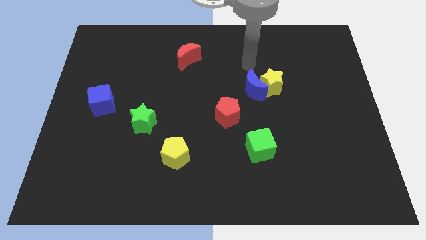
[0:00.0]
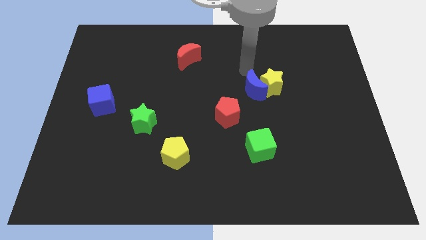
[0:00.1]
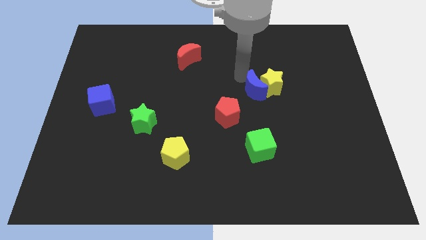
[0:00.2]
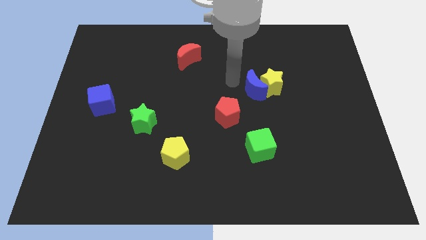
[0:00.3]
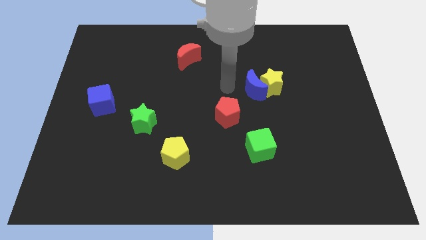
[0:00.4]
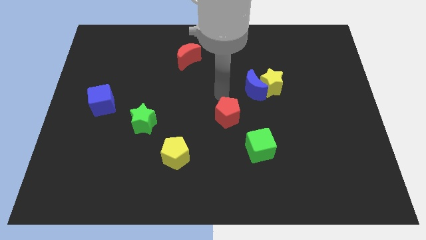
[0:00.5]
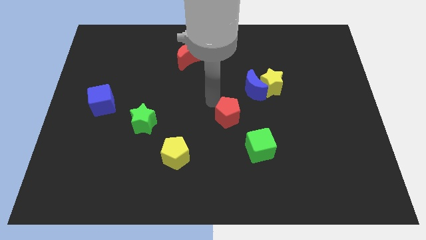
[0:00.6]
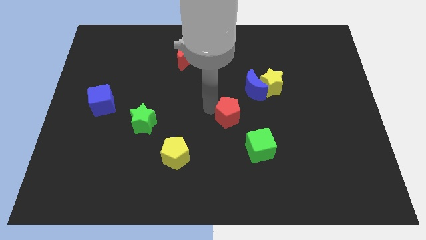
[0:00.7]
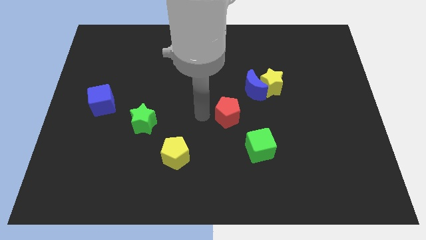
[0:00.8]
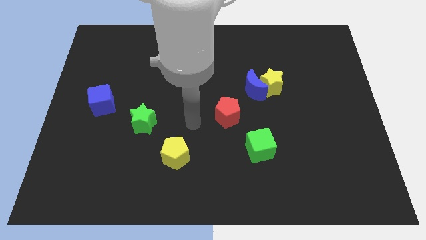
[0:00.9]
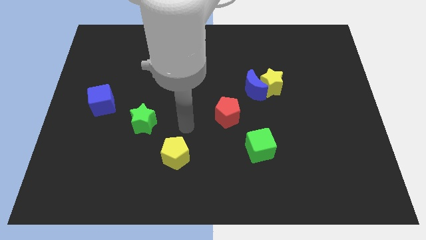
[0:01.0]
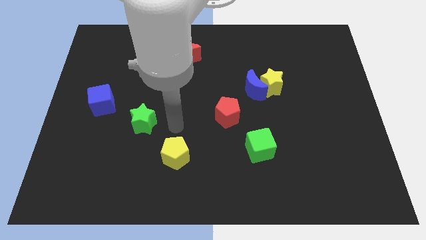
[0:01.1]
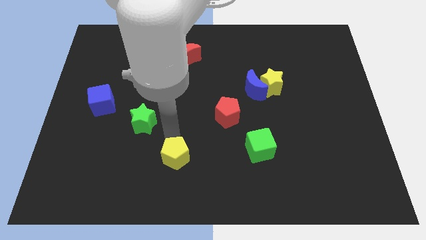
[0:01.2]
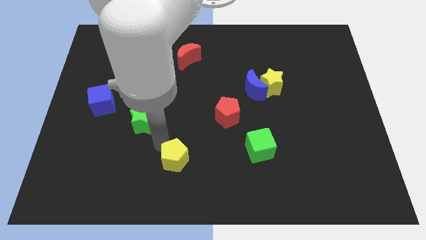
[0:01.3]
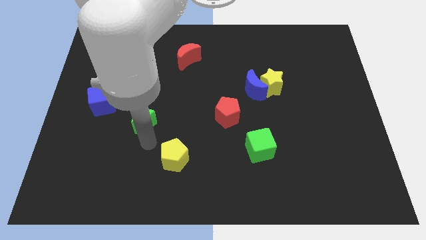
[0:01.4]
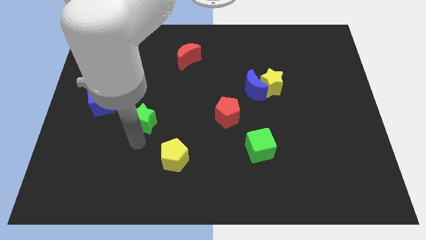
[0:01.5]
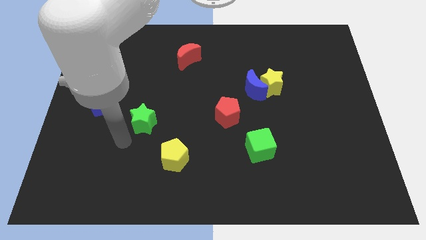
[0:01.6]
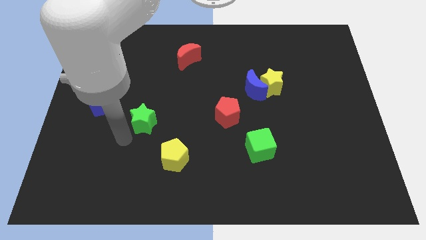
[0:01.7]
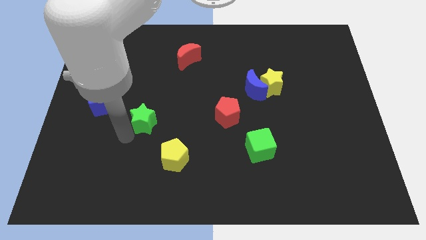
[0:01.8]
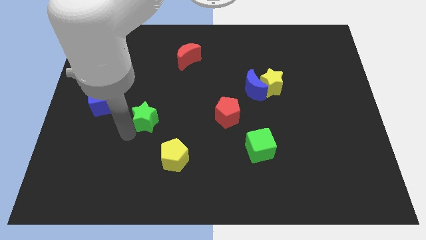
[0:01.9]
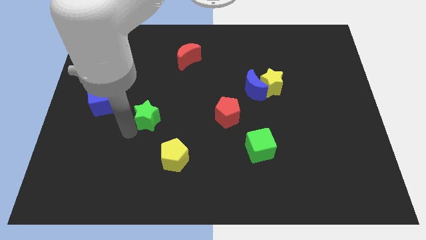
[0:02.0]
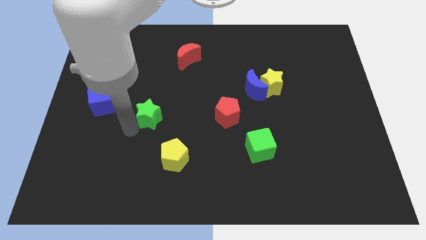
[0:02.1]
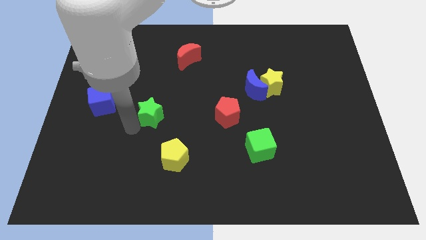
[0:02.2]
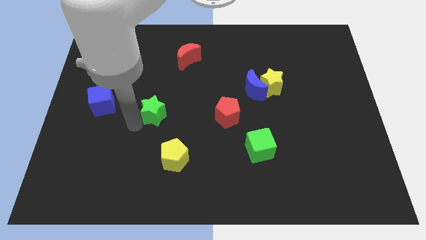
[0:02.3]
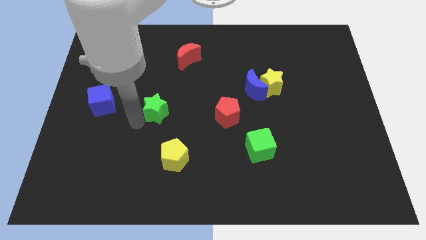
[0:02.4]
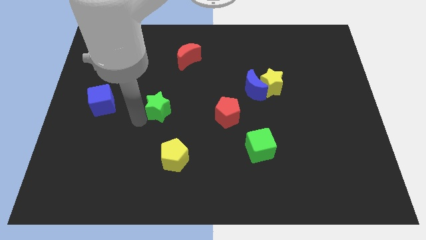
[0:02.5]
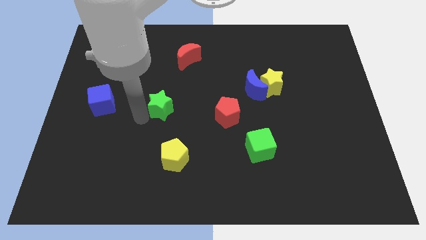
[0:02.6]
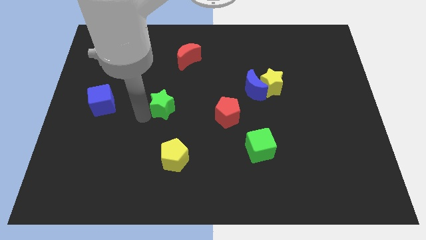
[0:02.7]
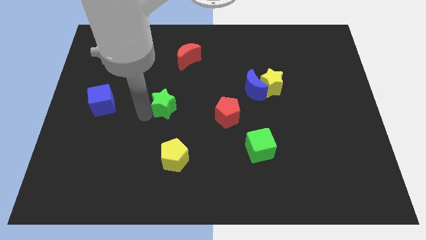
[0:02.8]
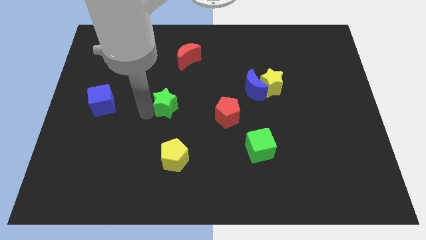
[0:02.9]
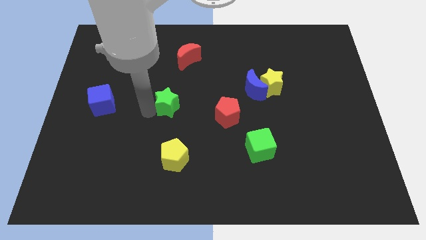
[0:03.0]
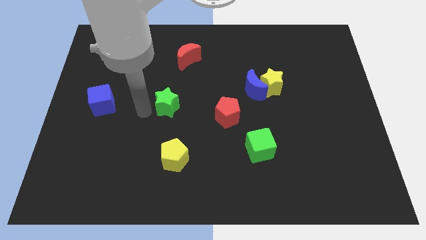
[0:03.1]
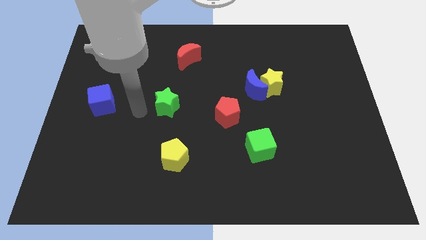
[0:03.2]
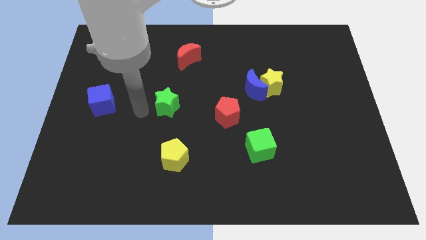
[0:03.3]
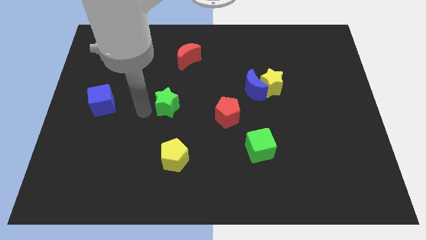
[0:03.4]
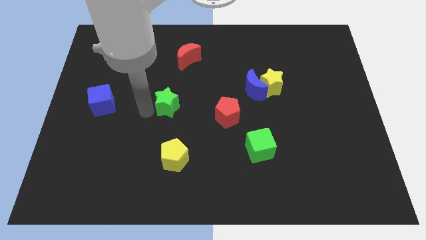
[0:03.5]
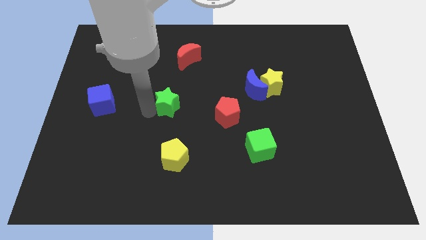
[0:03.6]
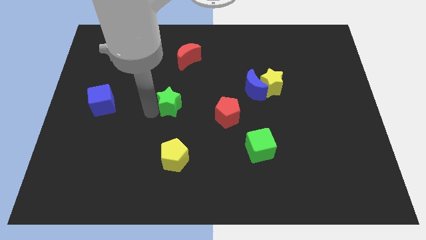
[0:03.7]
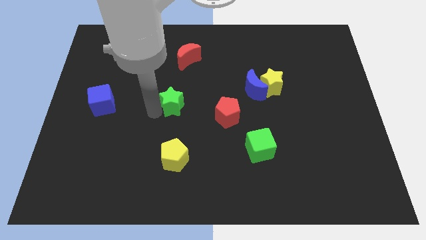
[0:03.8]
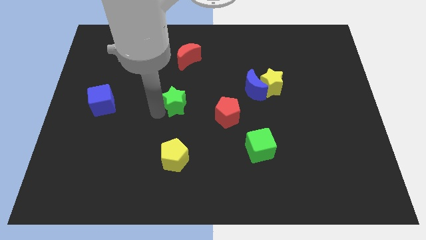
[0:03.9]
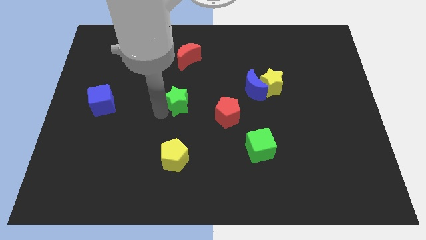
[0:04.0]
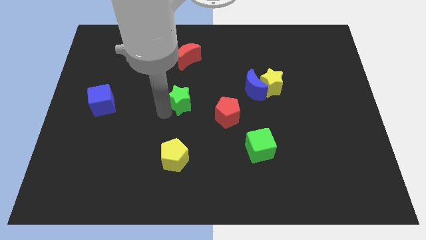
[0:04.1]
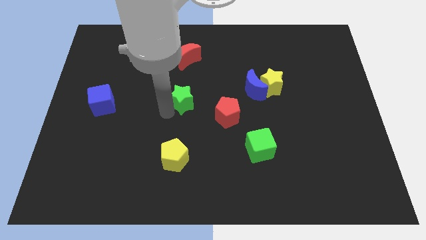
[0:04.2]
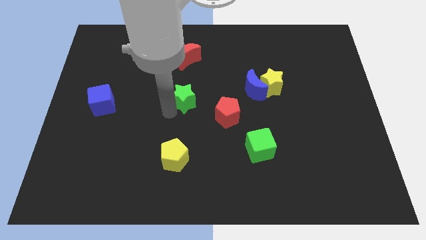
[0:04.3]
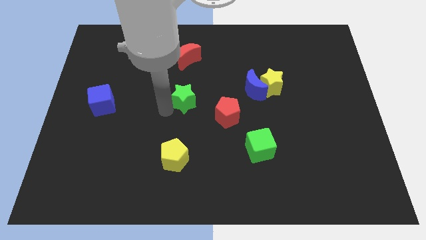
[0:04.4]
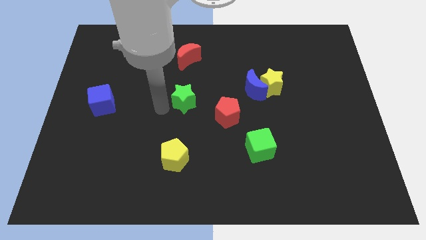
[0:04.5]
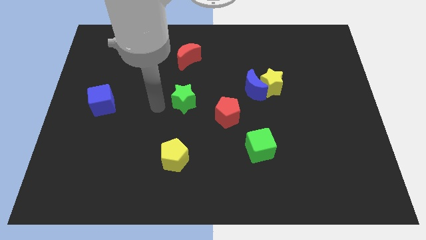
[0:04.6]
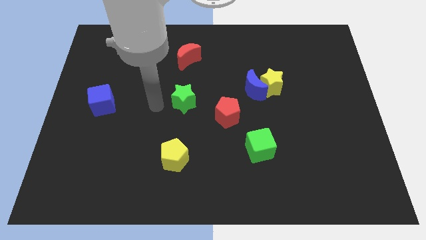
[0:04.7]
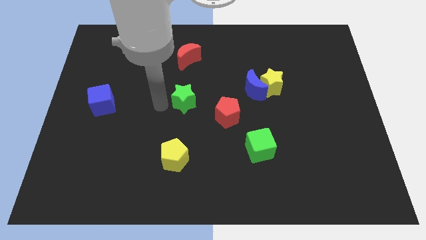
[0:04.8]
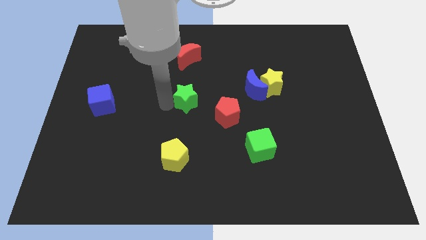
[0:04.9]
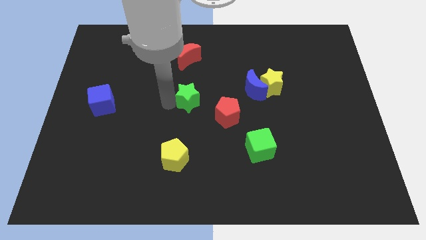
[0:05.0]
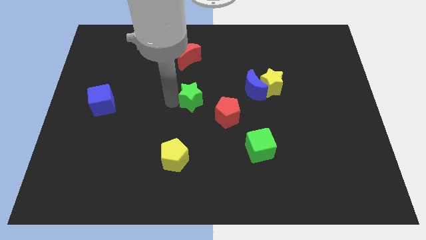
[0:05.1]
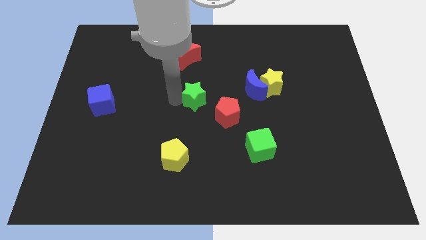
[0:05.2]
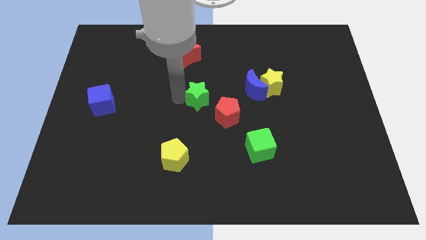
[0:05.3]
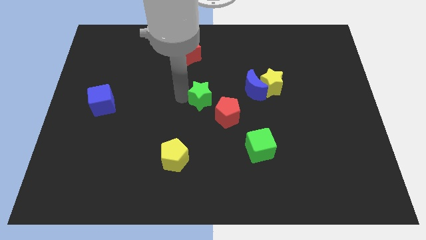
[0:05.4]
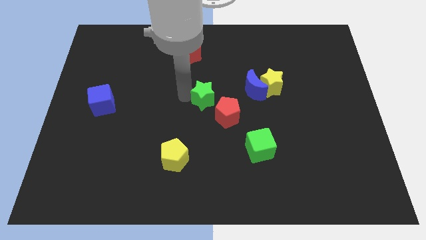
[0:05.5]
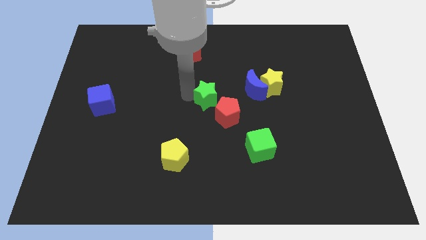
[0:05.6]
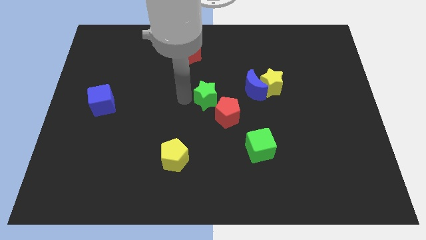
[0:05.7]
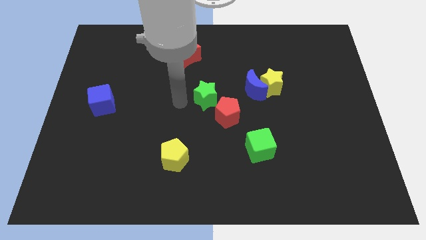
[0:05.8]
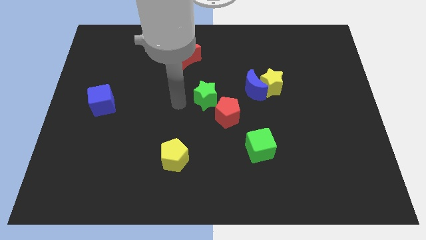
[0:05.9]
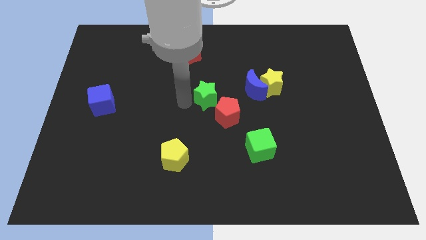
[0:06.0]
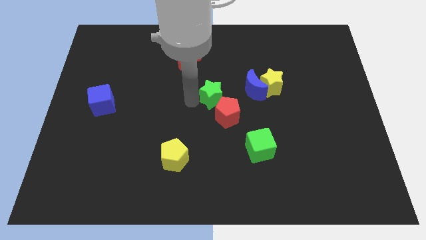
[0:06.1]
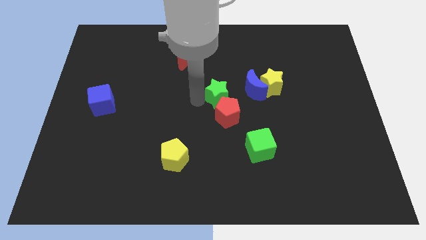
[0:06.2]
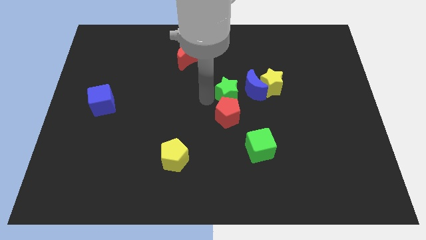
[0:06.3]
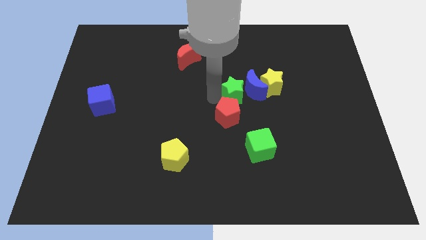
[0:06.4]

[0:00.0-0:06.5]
slide the green star towards the blue moon

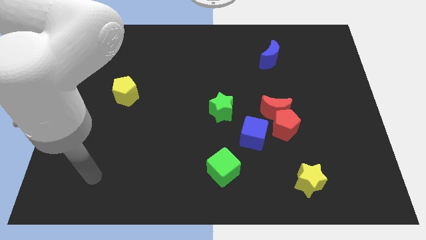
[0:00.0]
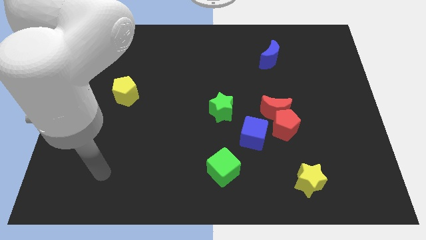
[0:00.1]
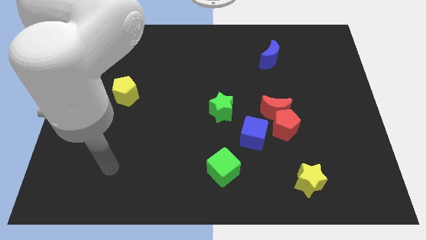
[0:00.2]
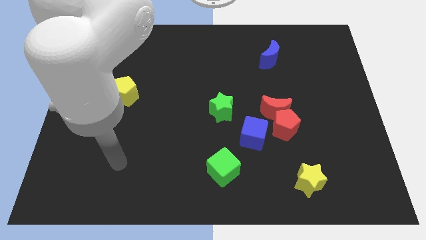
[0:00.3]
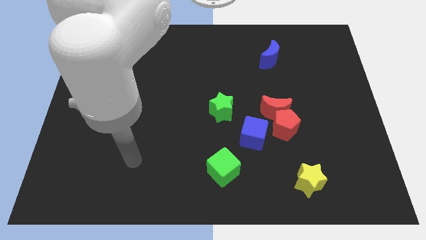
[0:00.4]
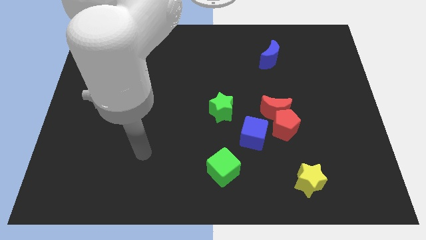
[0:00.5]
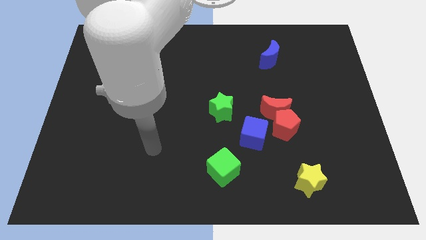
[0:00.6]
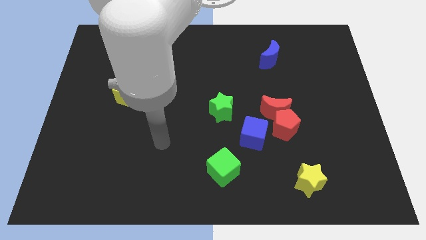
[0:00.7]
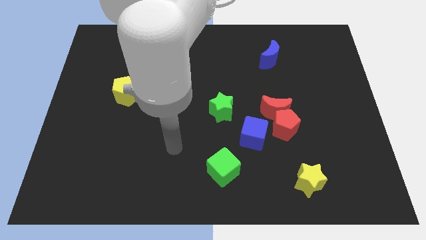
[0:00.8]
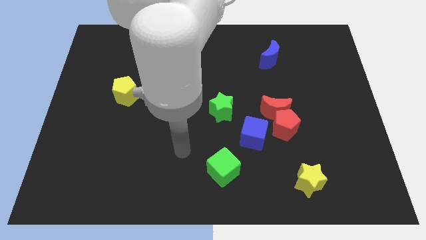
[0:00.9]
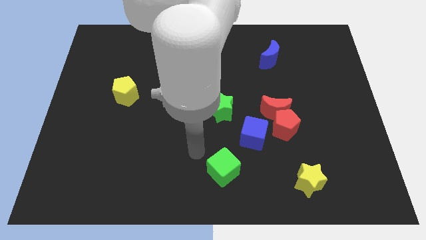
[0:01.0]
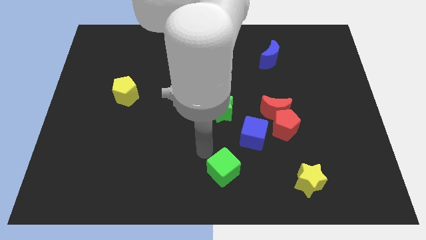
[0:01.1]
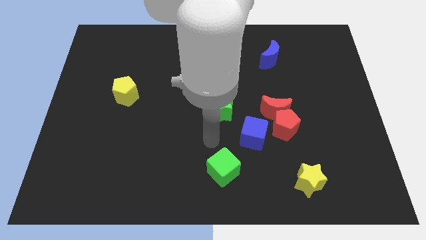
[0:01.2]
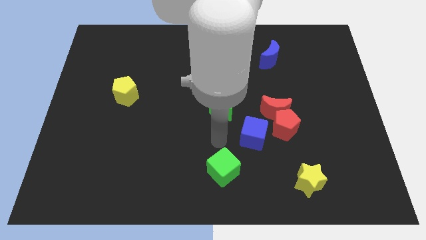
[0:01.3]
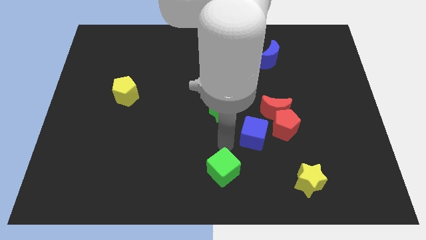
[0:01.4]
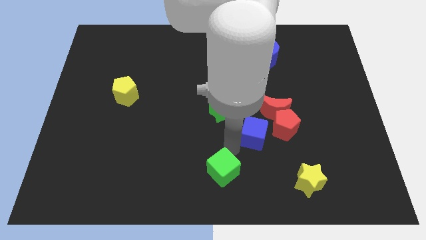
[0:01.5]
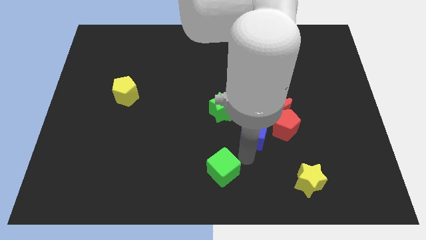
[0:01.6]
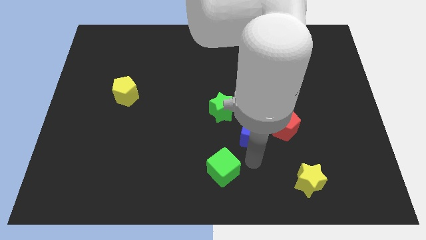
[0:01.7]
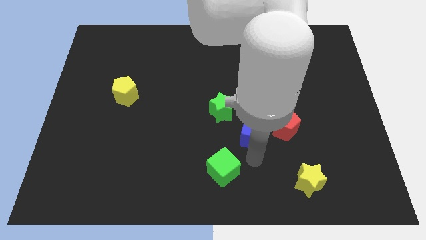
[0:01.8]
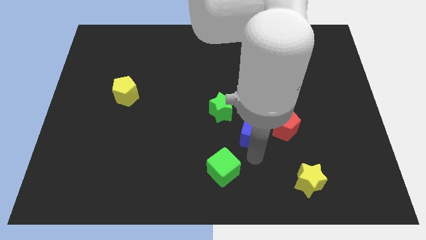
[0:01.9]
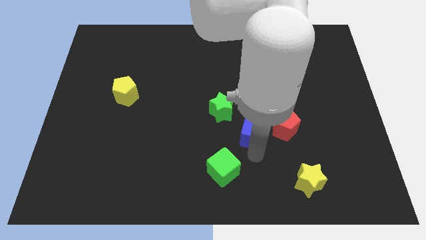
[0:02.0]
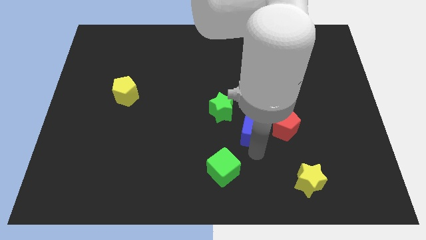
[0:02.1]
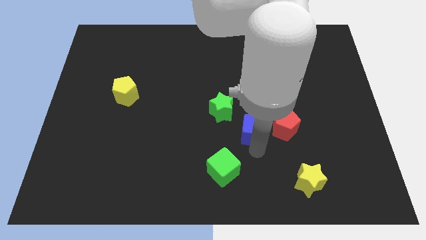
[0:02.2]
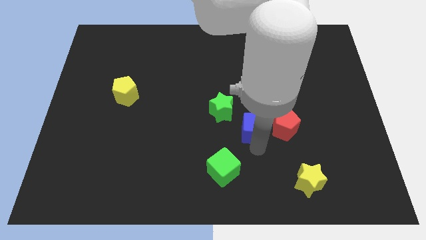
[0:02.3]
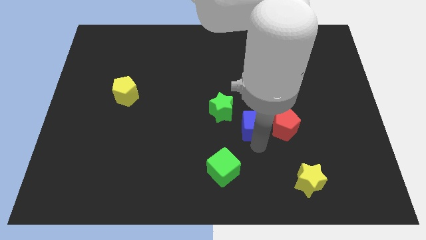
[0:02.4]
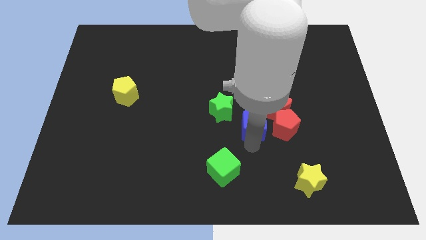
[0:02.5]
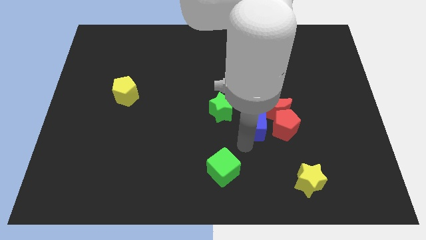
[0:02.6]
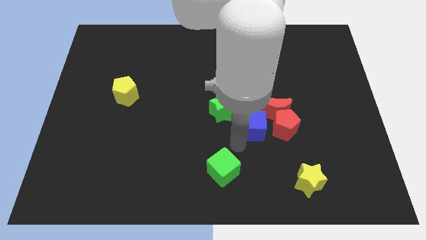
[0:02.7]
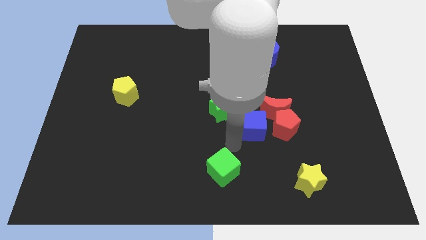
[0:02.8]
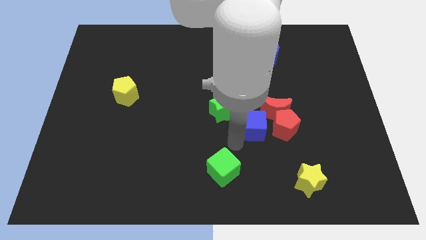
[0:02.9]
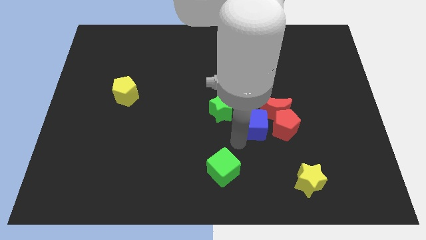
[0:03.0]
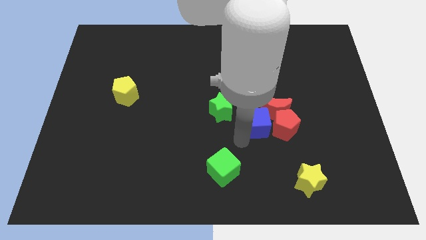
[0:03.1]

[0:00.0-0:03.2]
slide the blue cube towards the red moon
